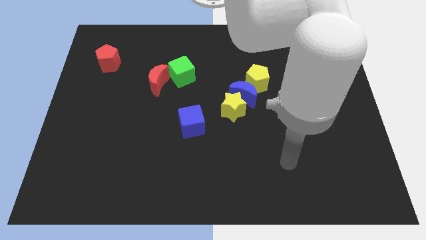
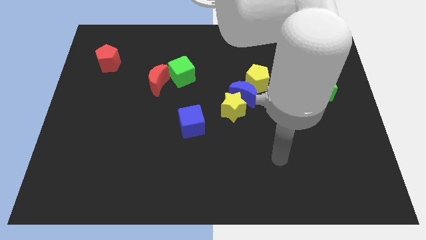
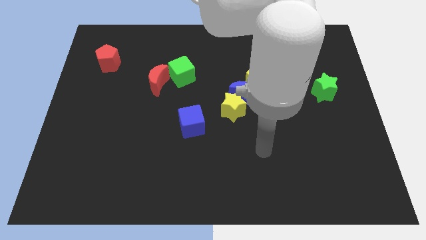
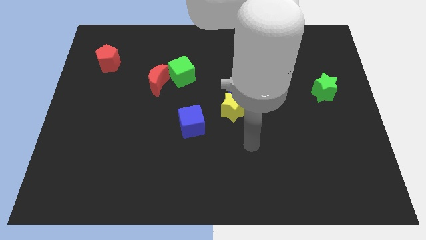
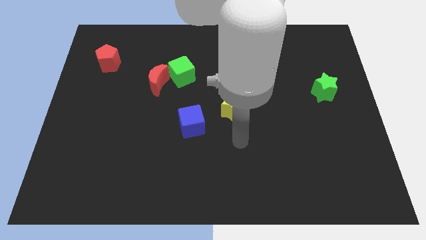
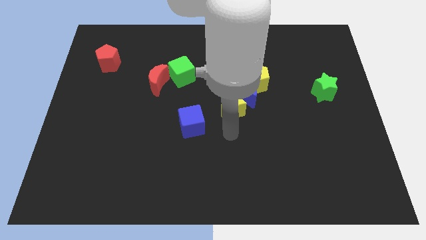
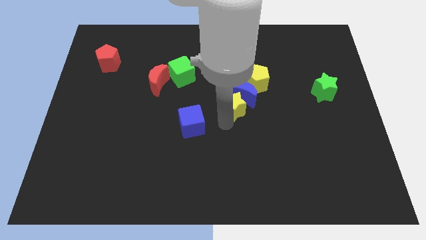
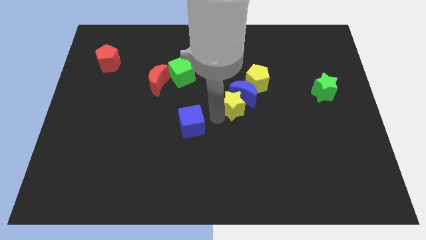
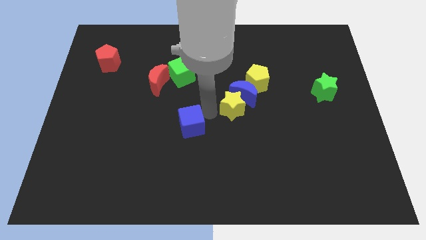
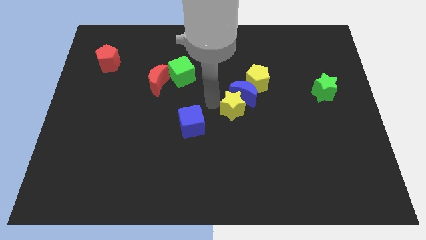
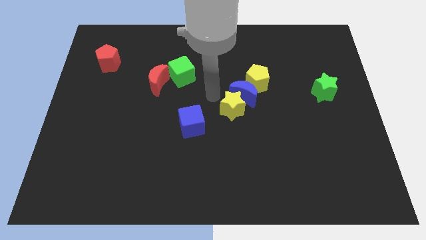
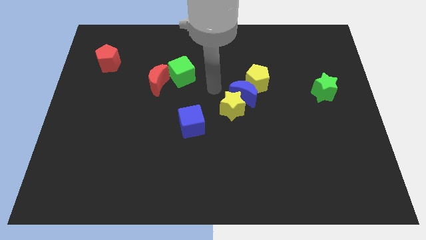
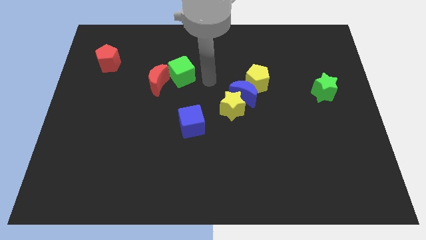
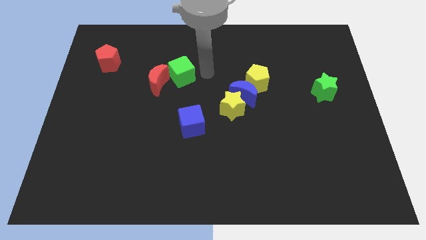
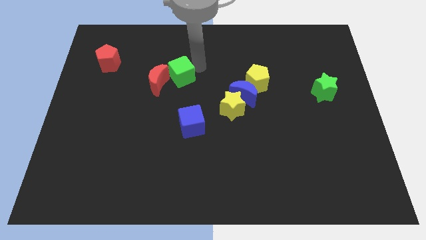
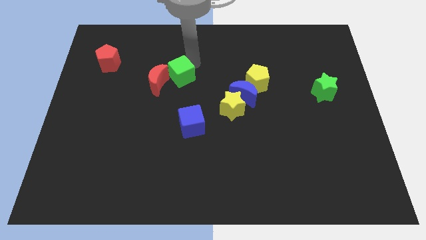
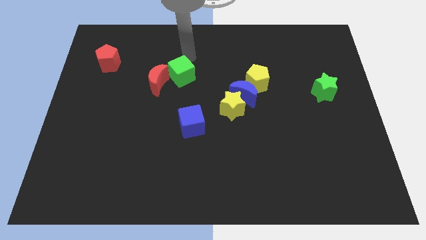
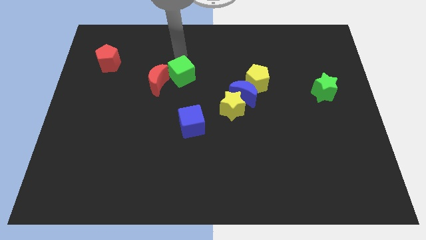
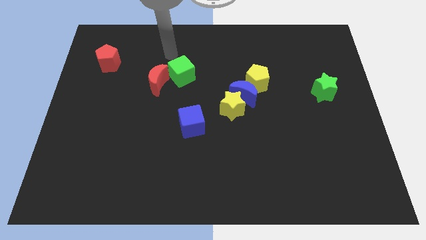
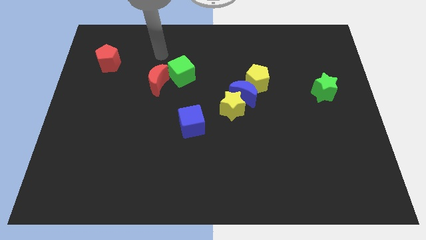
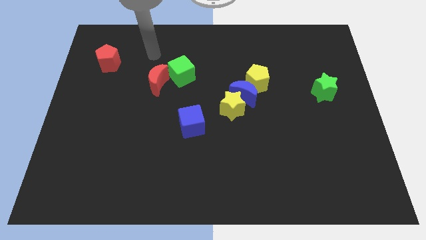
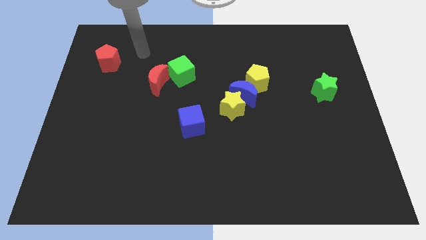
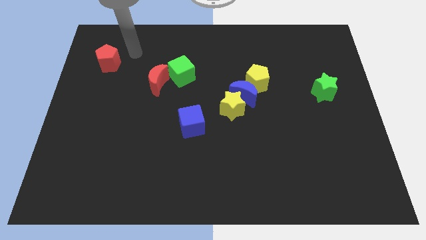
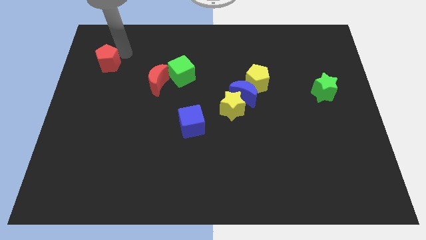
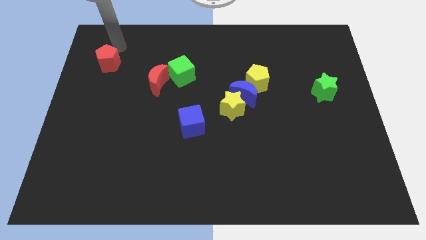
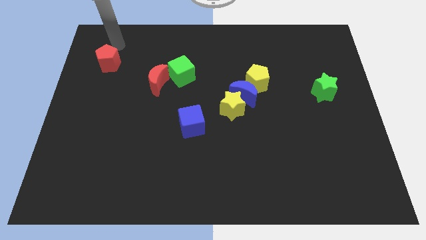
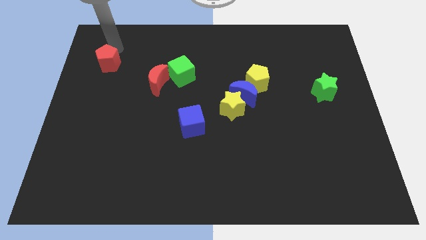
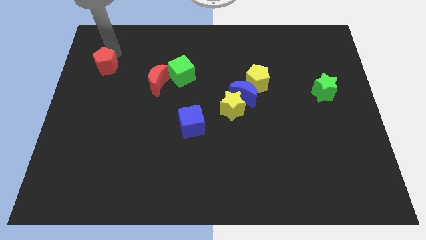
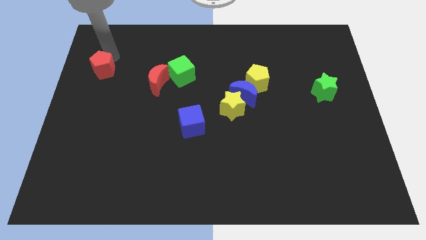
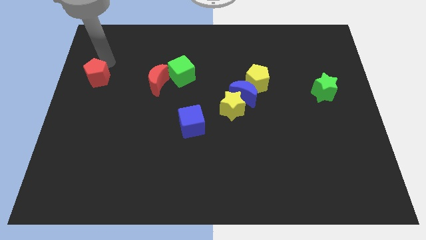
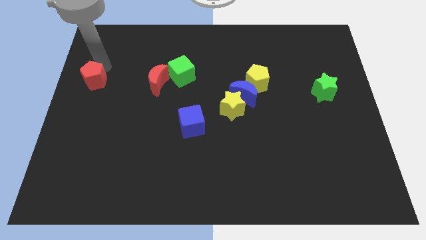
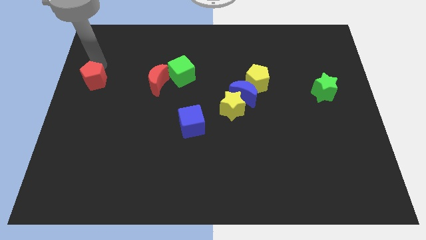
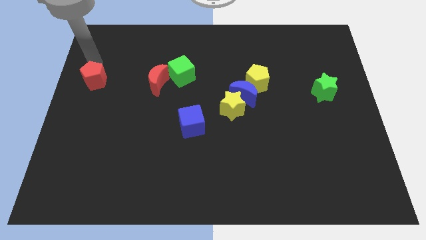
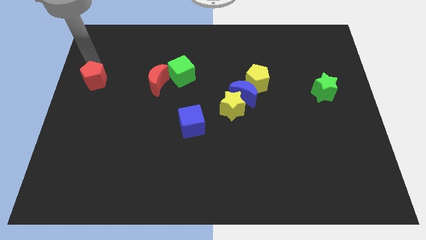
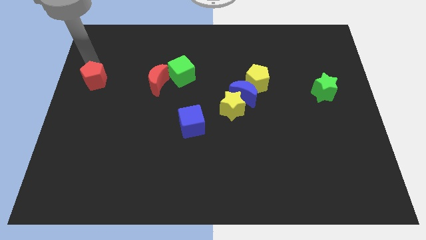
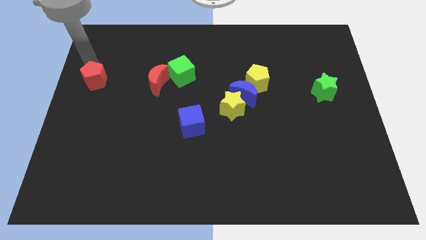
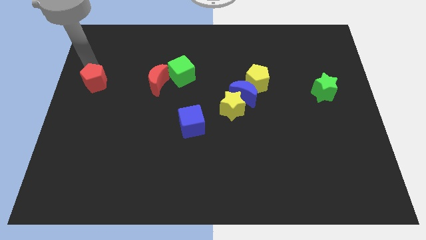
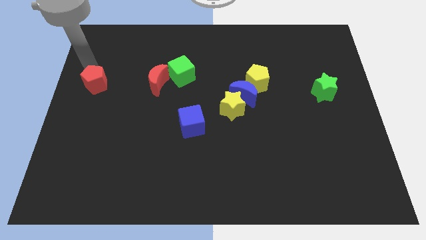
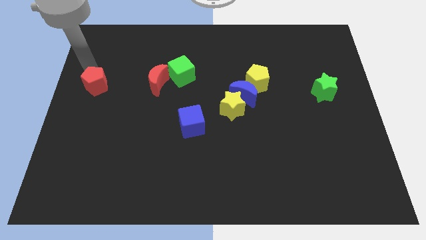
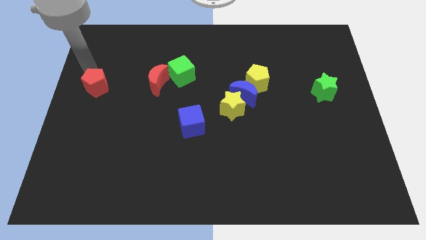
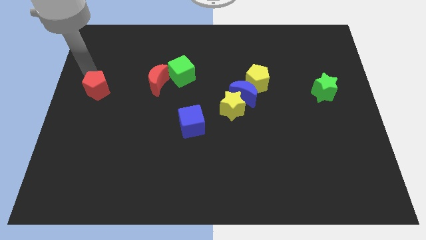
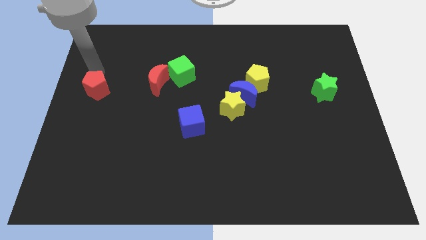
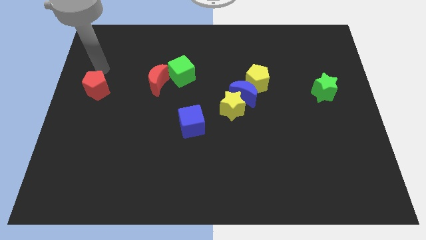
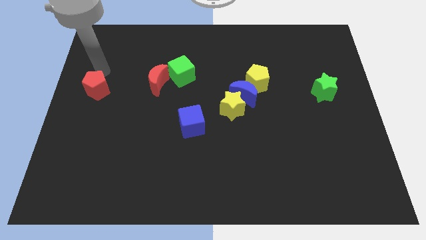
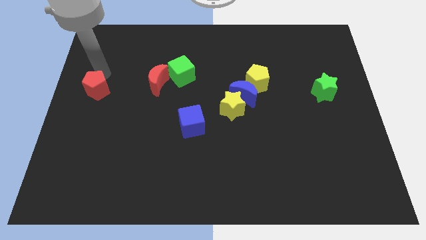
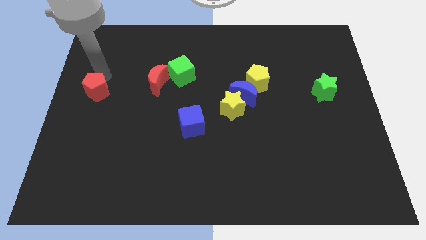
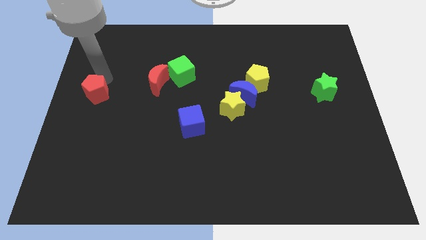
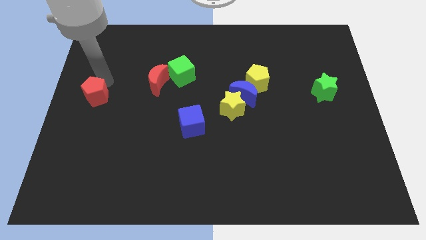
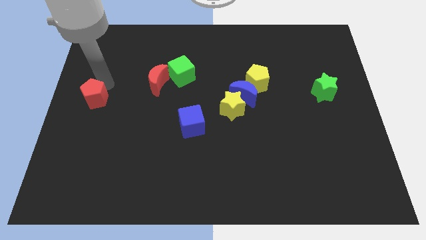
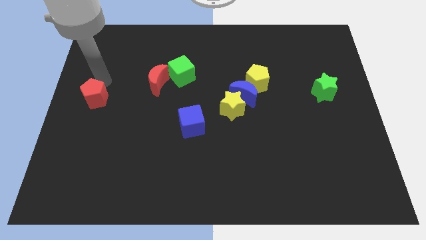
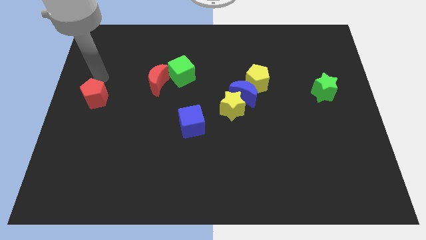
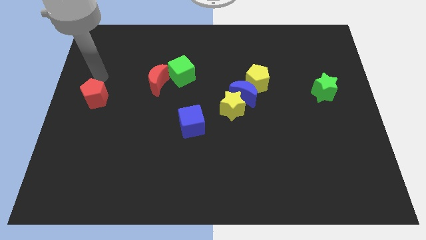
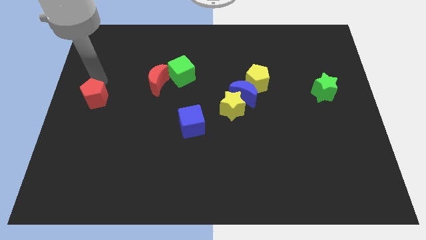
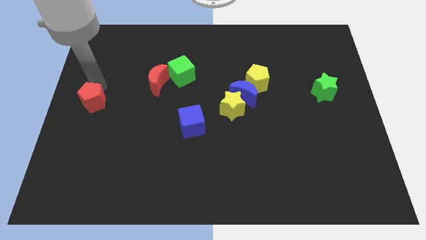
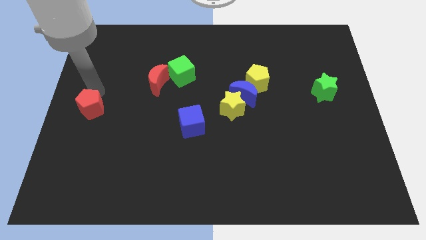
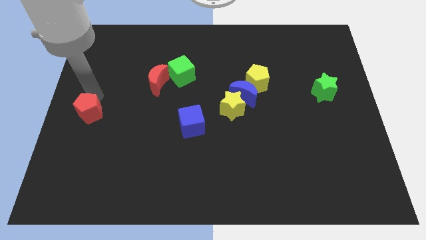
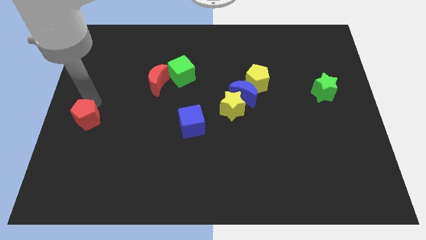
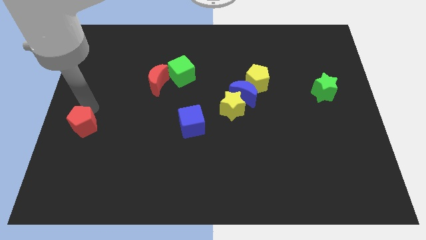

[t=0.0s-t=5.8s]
move the red pentagon downwards

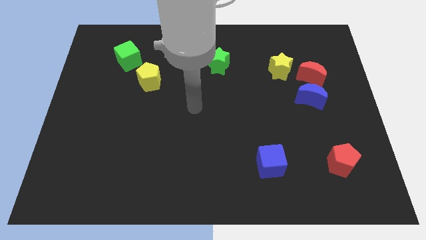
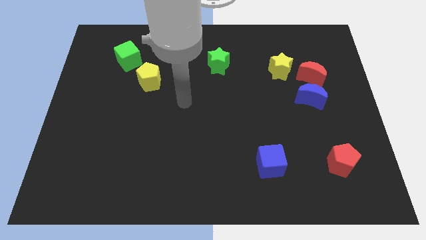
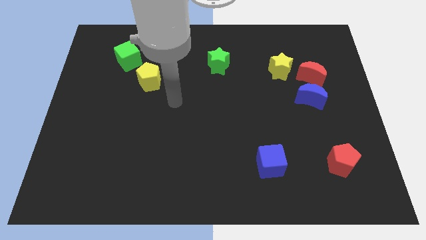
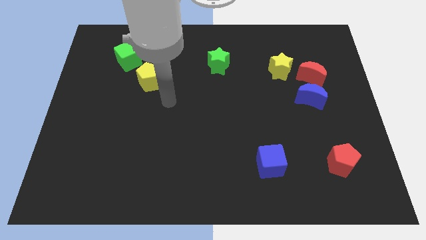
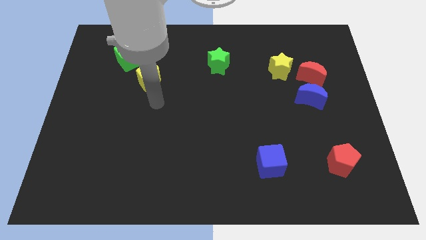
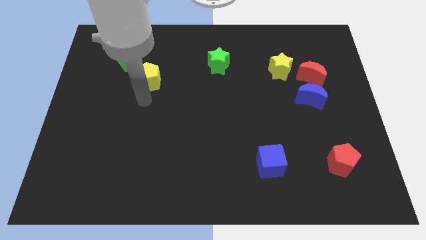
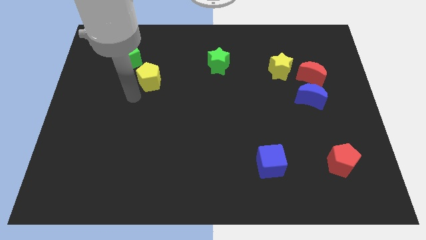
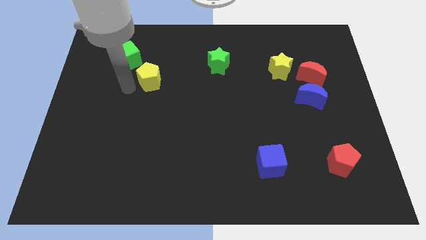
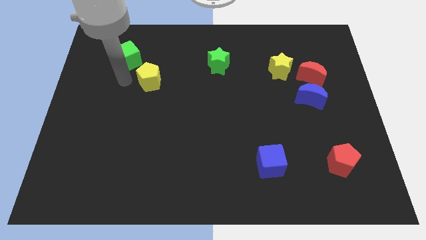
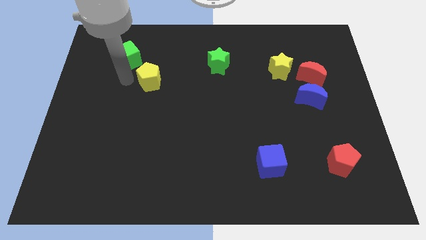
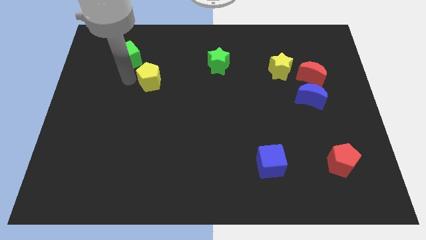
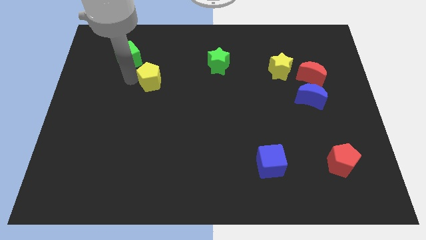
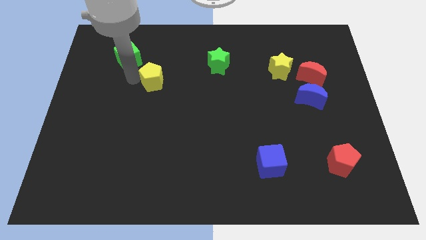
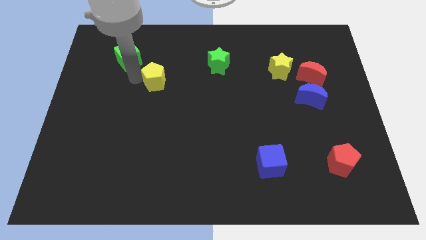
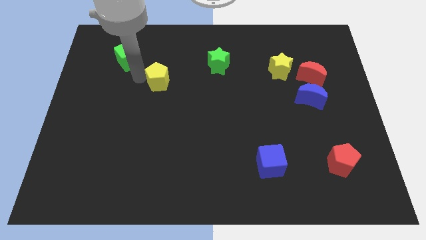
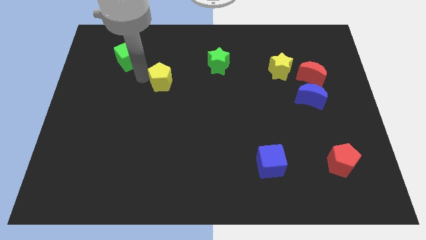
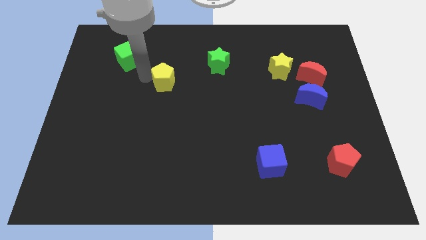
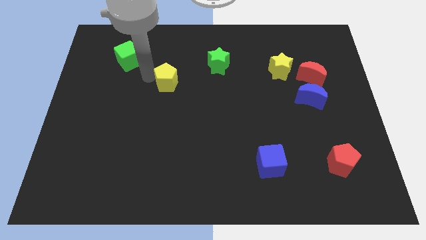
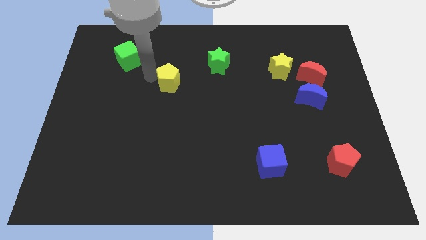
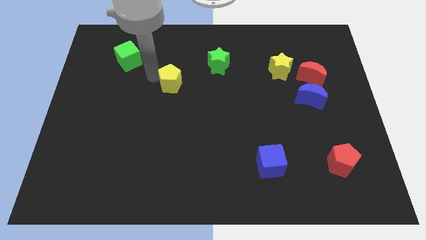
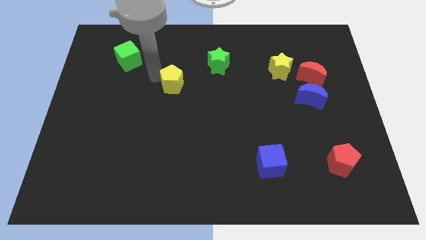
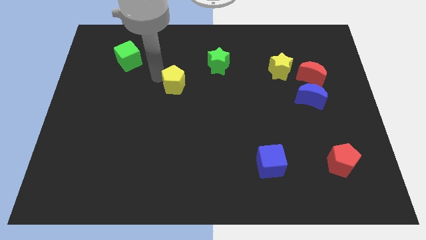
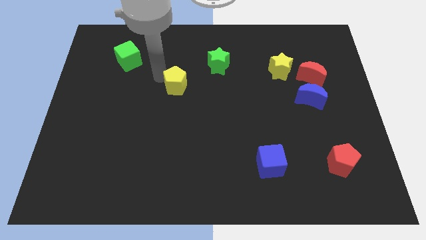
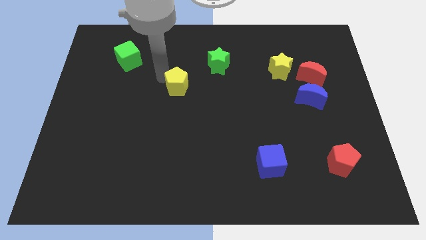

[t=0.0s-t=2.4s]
slightly slide the yellow pentagon to the right
